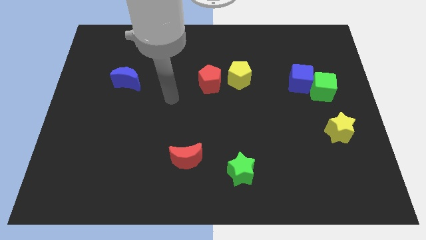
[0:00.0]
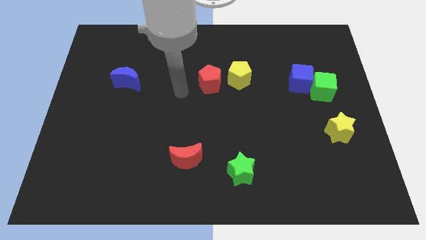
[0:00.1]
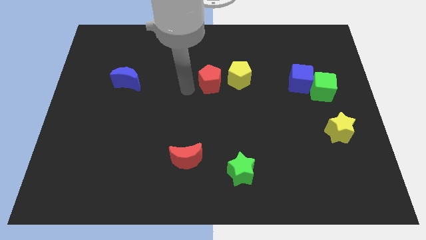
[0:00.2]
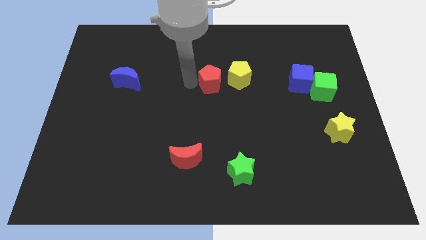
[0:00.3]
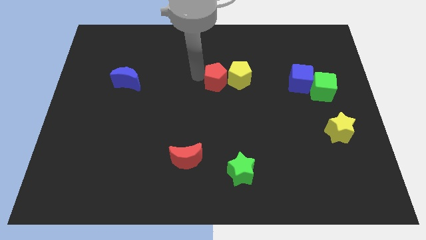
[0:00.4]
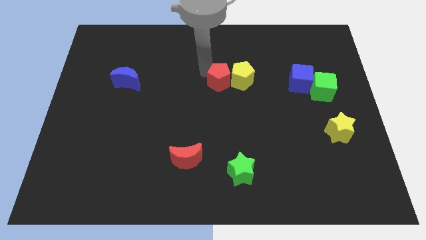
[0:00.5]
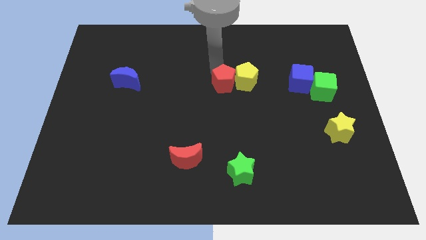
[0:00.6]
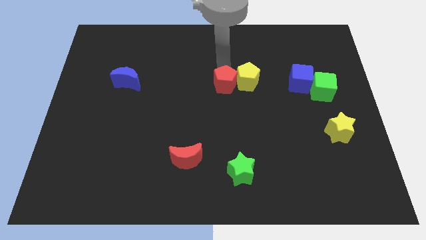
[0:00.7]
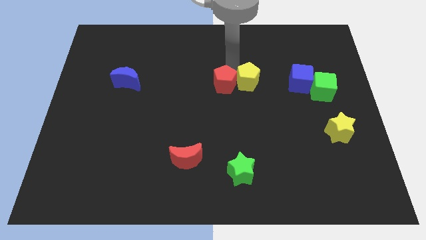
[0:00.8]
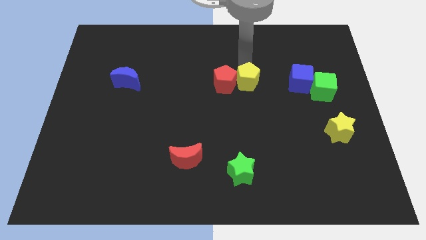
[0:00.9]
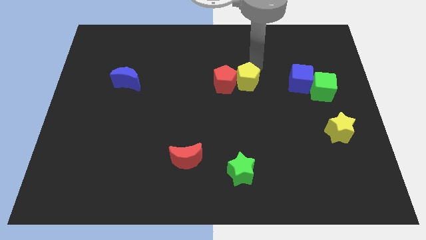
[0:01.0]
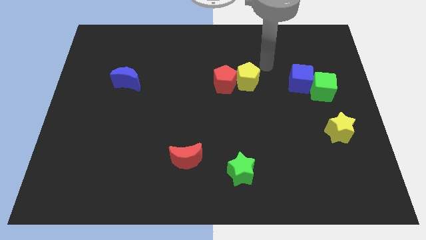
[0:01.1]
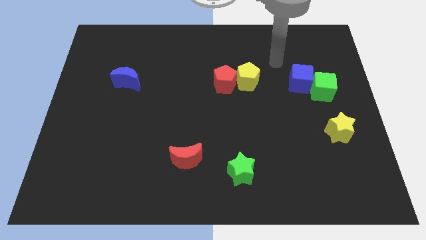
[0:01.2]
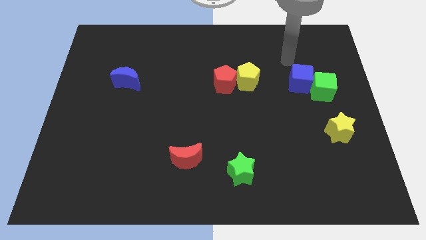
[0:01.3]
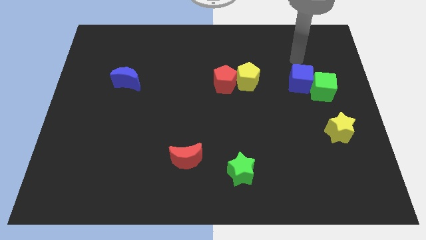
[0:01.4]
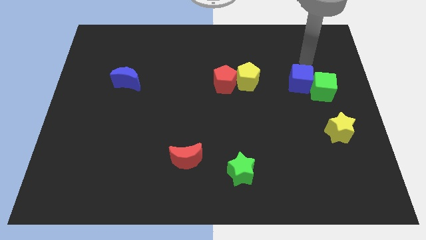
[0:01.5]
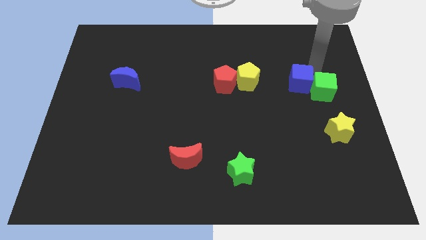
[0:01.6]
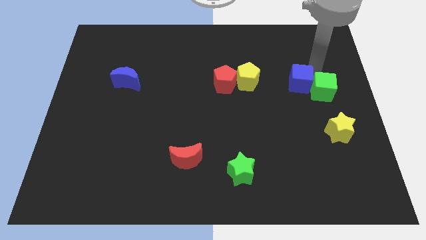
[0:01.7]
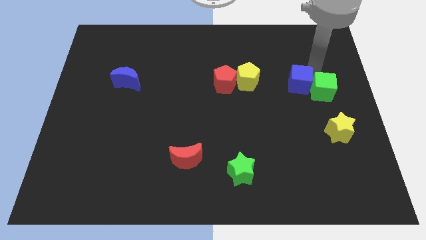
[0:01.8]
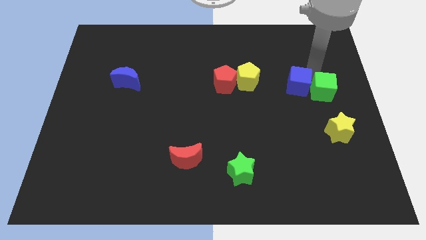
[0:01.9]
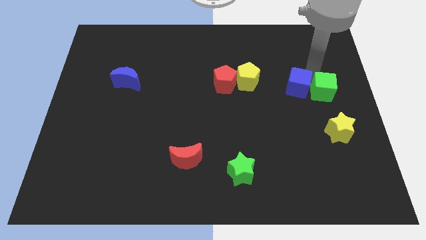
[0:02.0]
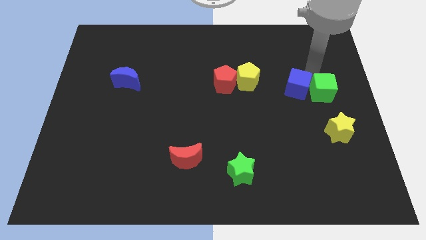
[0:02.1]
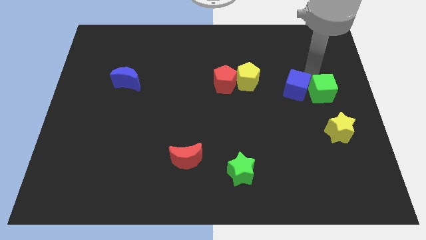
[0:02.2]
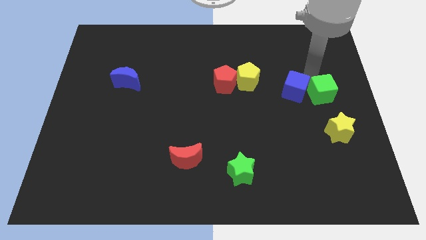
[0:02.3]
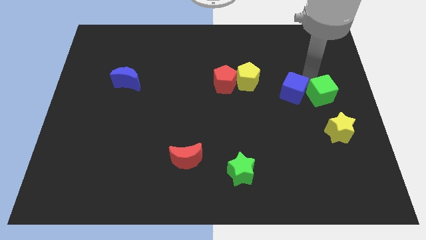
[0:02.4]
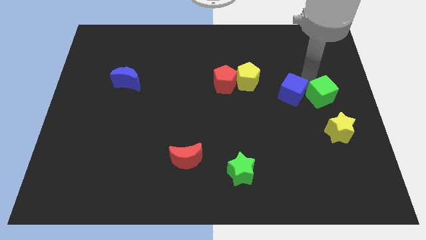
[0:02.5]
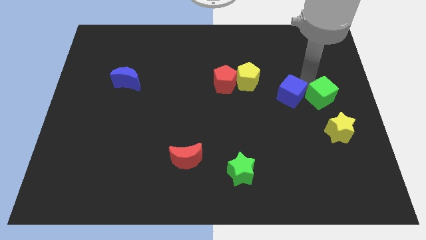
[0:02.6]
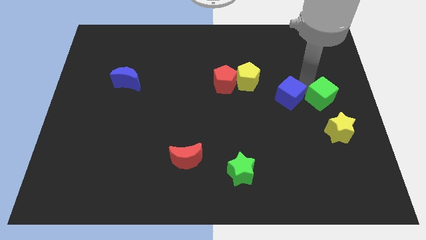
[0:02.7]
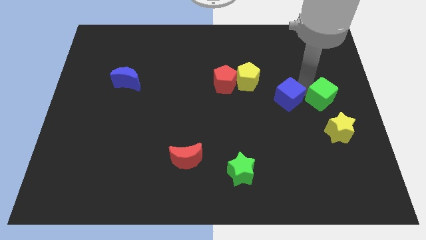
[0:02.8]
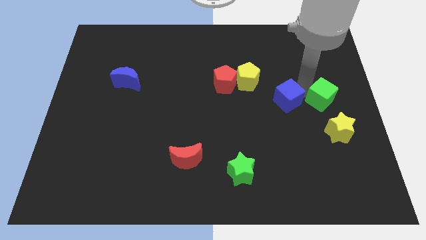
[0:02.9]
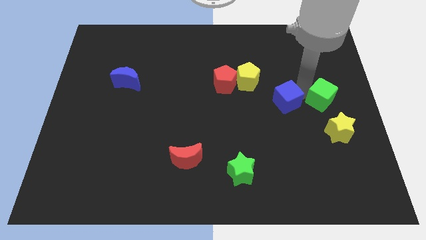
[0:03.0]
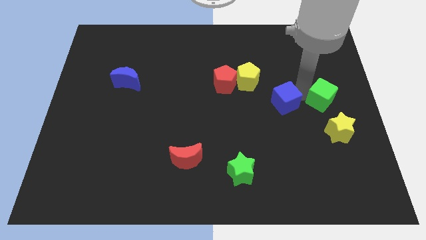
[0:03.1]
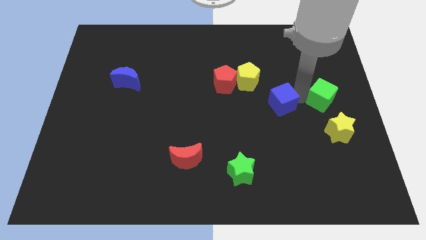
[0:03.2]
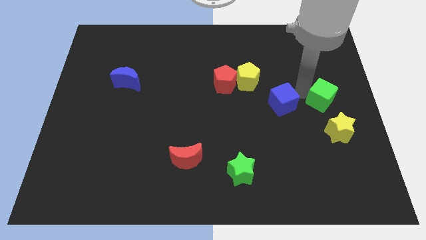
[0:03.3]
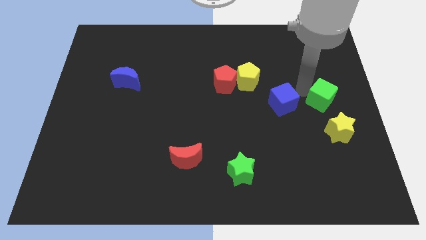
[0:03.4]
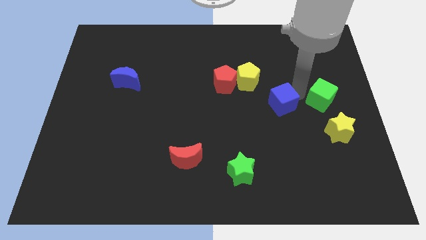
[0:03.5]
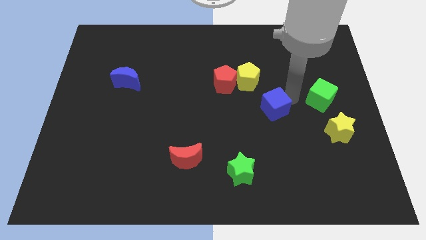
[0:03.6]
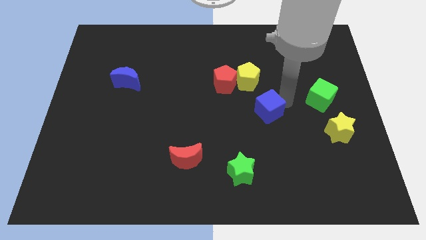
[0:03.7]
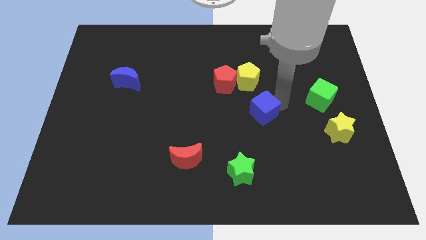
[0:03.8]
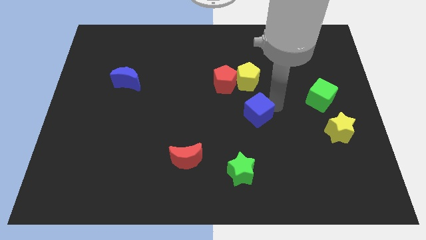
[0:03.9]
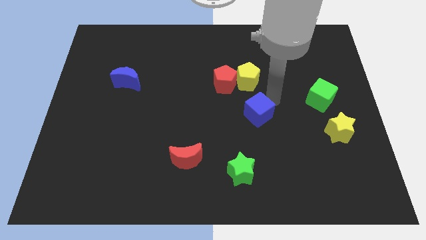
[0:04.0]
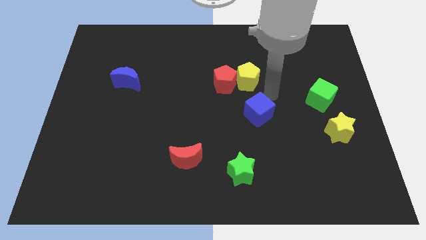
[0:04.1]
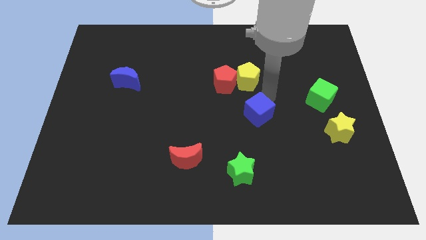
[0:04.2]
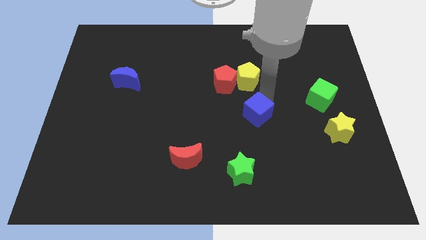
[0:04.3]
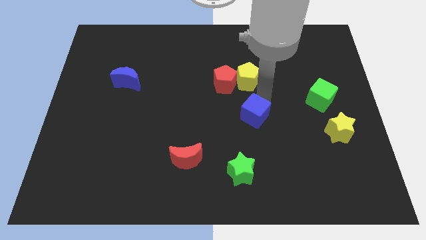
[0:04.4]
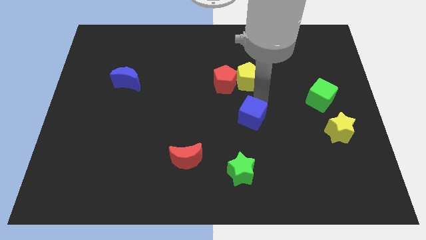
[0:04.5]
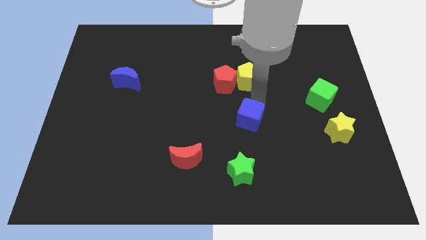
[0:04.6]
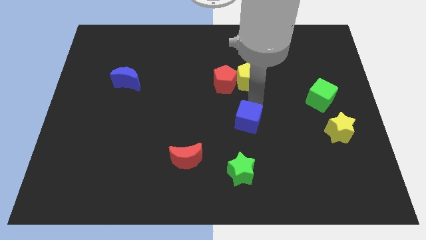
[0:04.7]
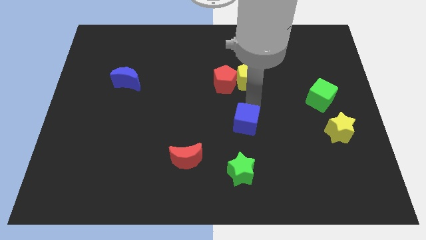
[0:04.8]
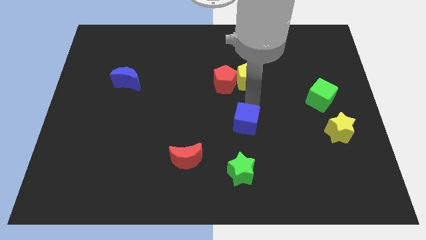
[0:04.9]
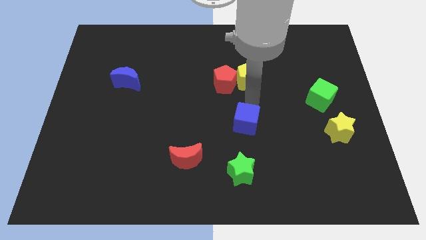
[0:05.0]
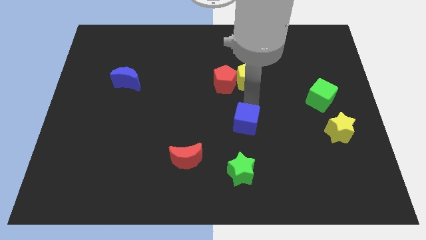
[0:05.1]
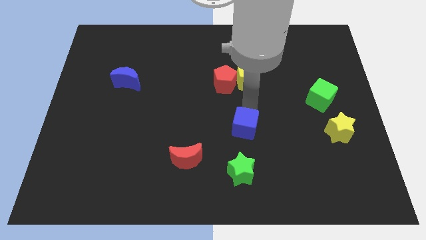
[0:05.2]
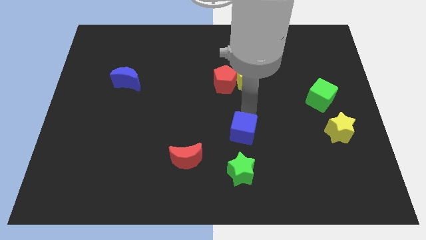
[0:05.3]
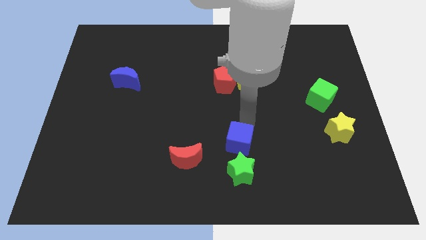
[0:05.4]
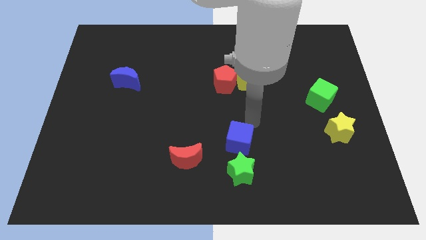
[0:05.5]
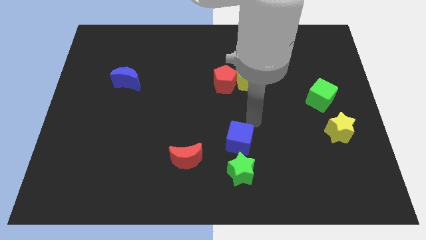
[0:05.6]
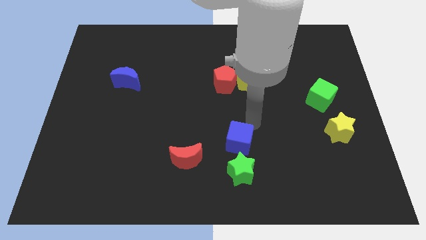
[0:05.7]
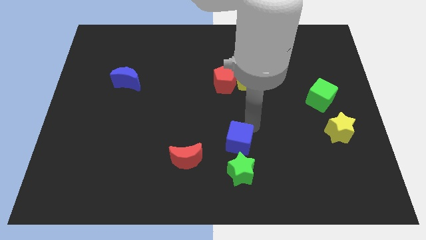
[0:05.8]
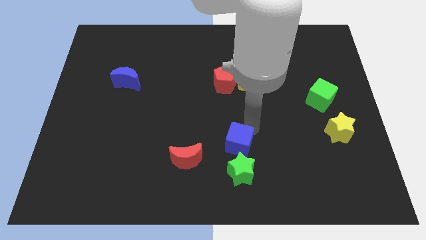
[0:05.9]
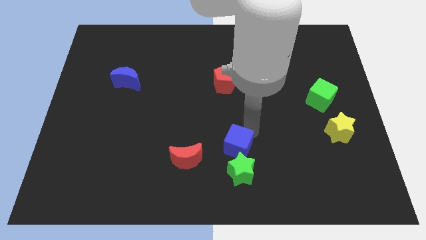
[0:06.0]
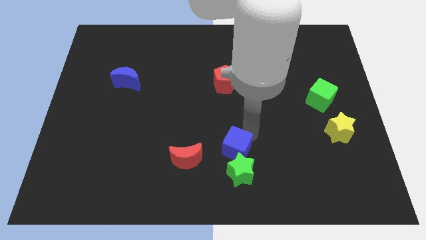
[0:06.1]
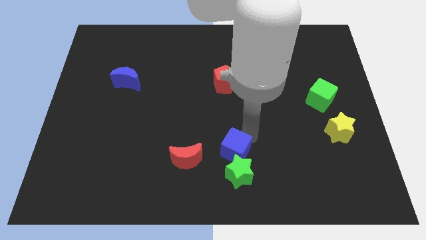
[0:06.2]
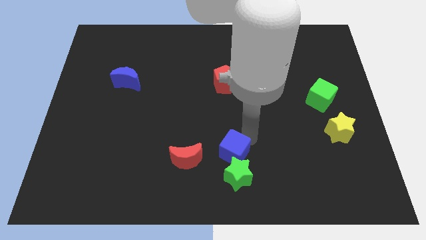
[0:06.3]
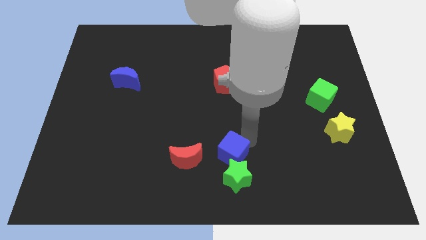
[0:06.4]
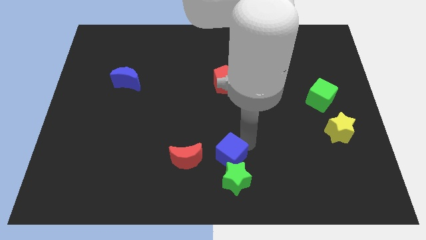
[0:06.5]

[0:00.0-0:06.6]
put the blue cube to the bottom
